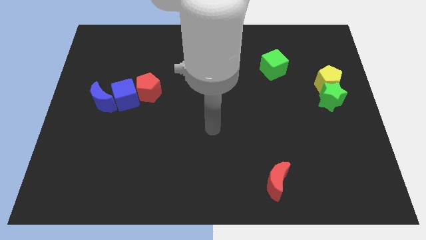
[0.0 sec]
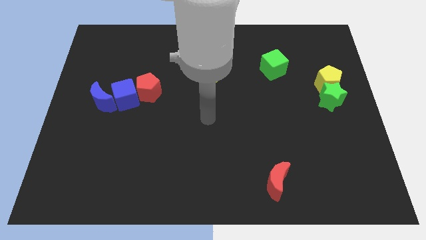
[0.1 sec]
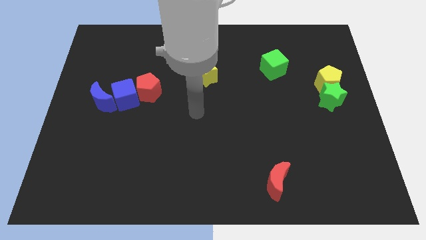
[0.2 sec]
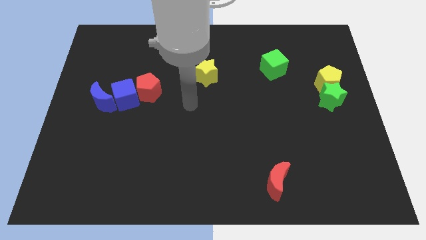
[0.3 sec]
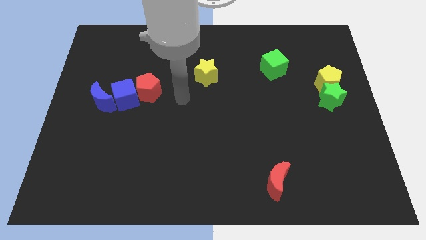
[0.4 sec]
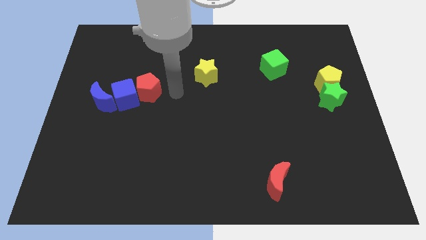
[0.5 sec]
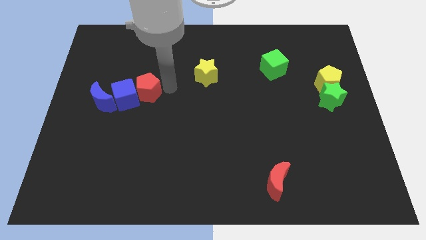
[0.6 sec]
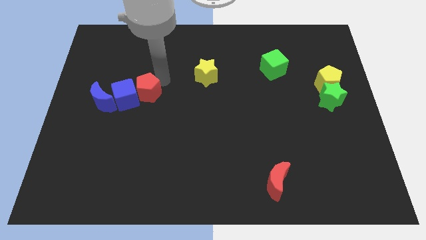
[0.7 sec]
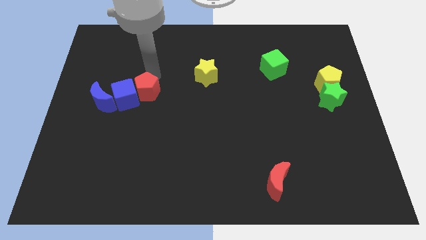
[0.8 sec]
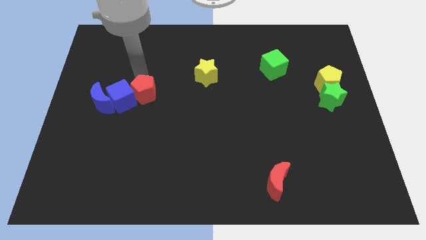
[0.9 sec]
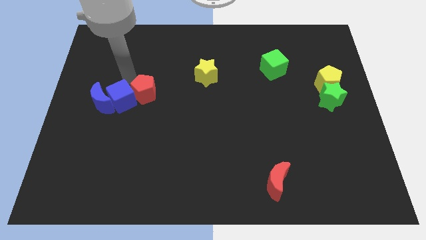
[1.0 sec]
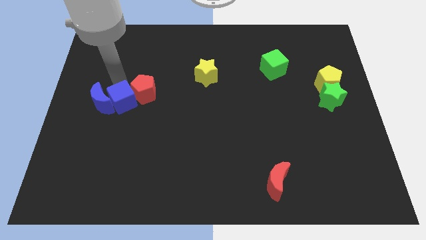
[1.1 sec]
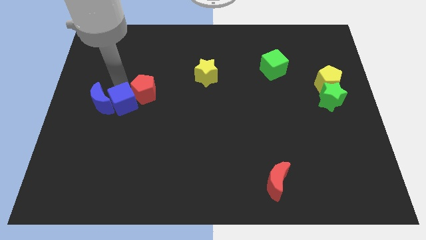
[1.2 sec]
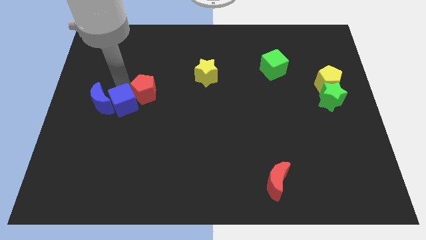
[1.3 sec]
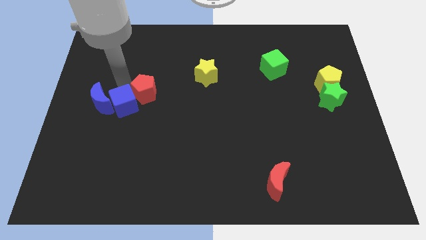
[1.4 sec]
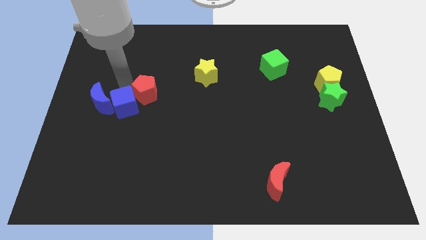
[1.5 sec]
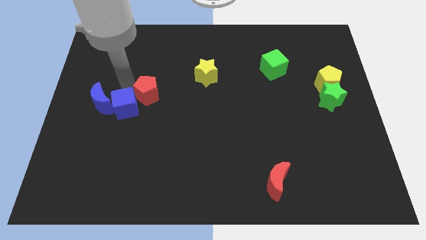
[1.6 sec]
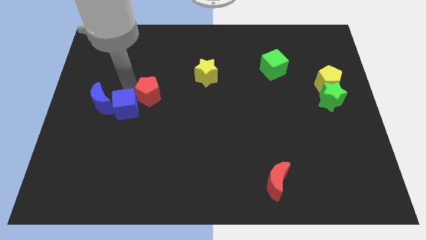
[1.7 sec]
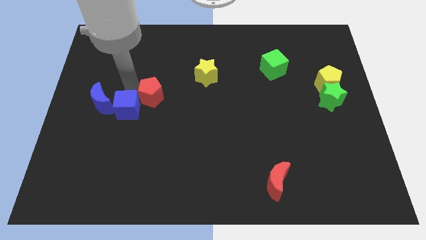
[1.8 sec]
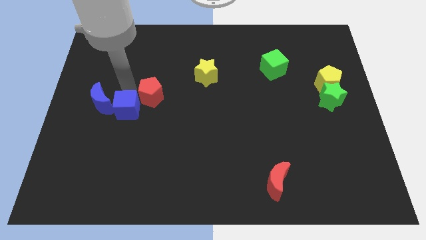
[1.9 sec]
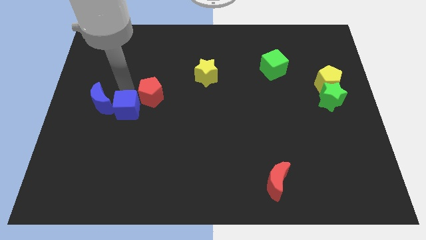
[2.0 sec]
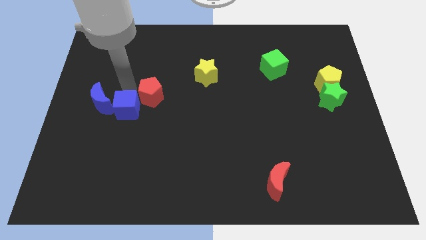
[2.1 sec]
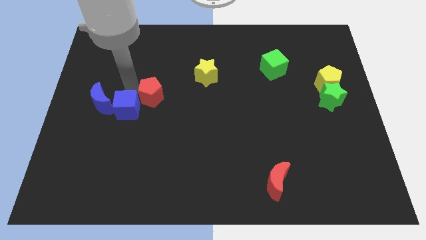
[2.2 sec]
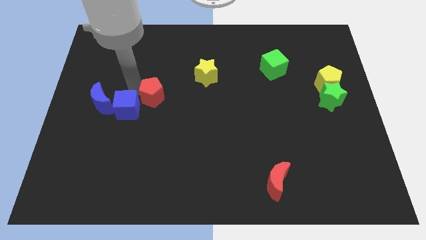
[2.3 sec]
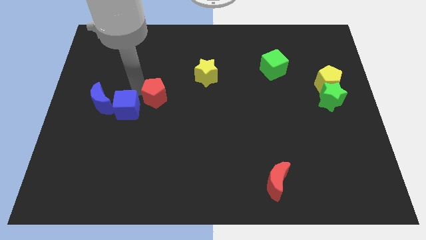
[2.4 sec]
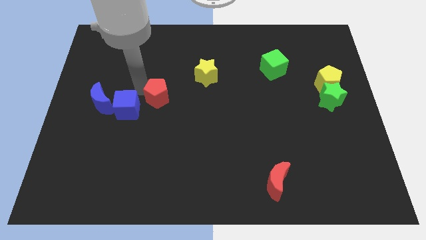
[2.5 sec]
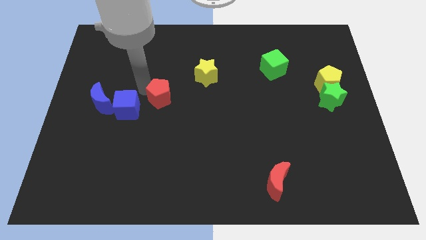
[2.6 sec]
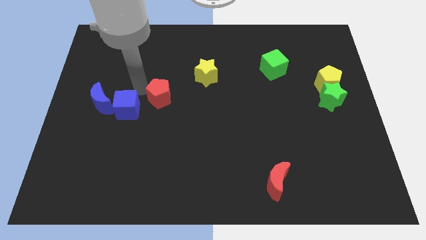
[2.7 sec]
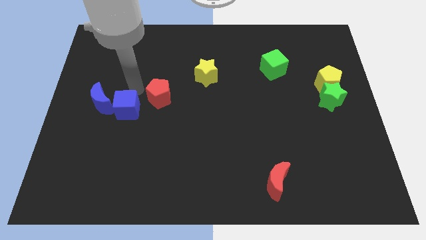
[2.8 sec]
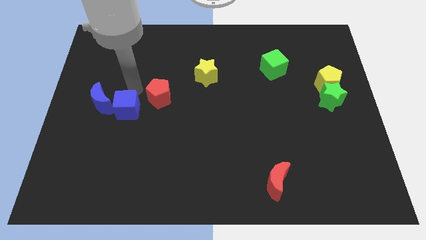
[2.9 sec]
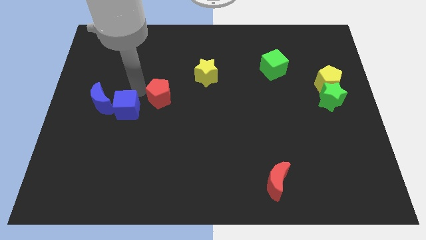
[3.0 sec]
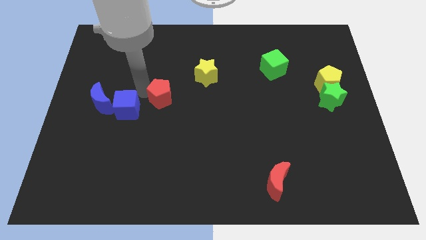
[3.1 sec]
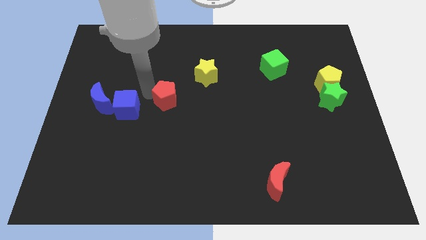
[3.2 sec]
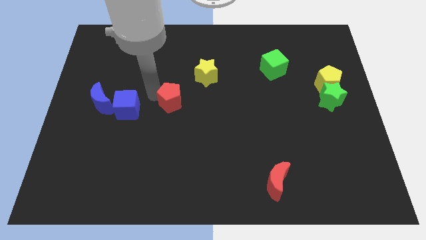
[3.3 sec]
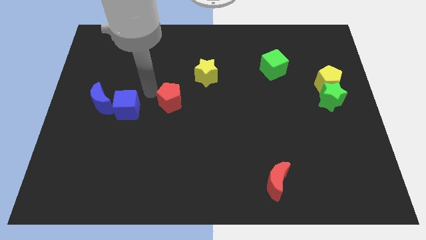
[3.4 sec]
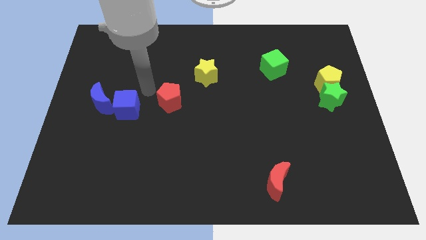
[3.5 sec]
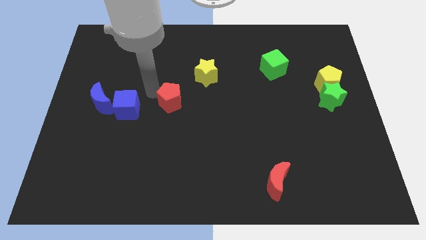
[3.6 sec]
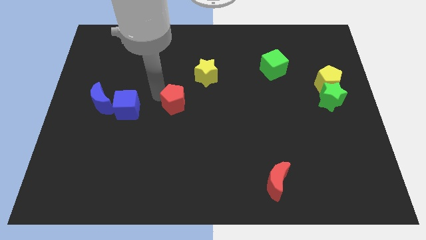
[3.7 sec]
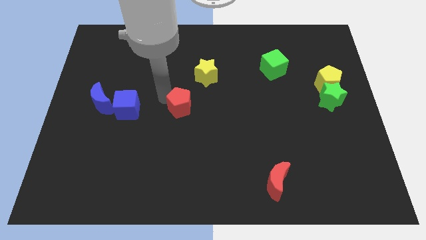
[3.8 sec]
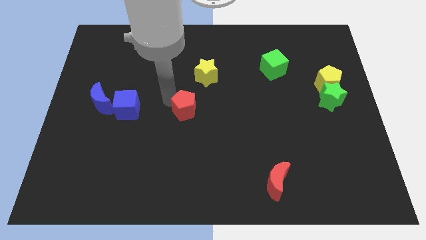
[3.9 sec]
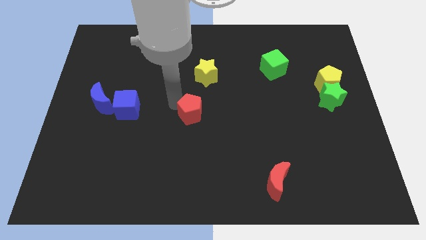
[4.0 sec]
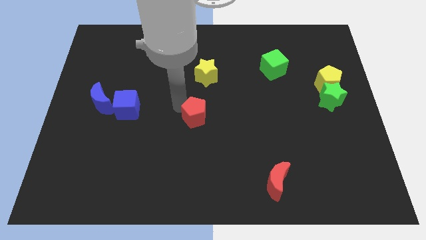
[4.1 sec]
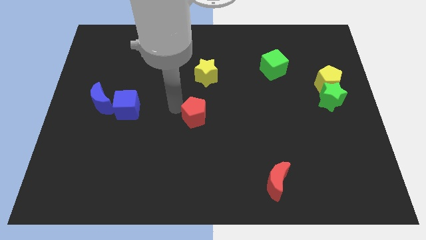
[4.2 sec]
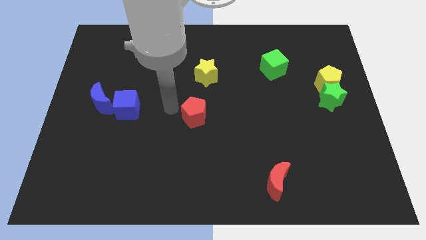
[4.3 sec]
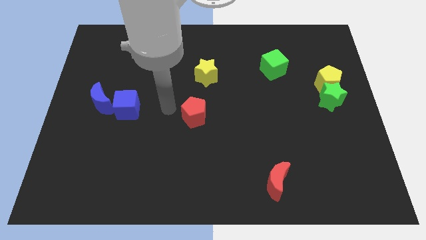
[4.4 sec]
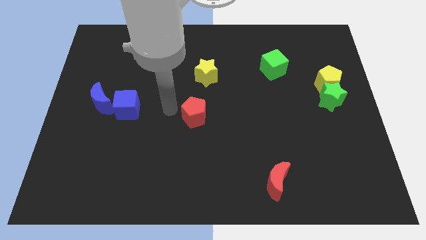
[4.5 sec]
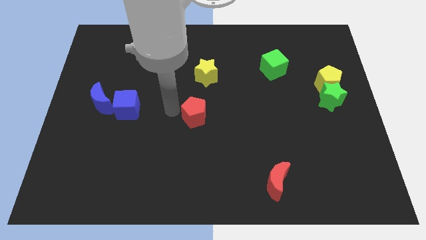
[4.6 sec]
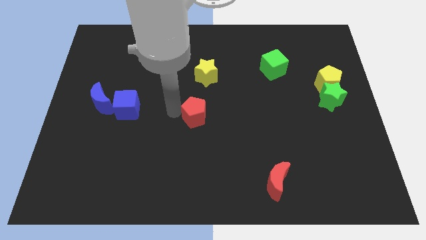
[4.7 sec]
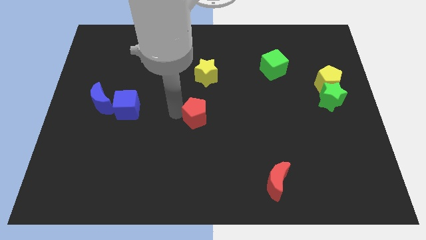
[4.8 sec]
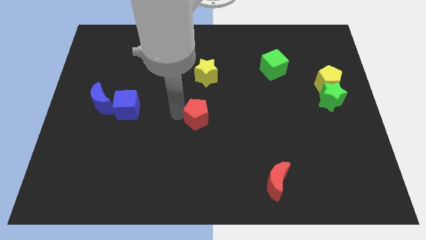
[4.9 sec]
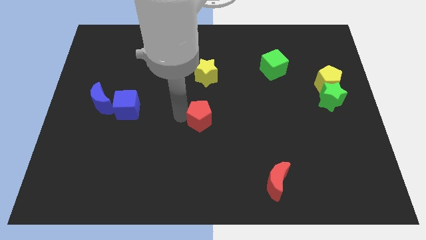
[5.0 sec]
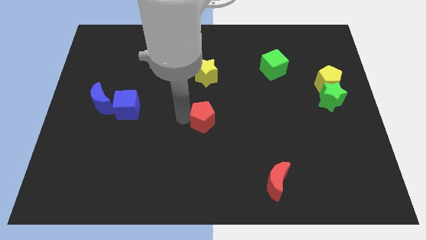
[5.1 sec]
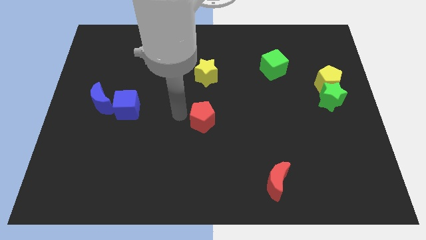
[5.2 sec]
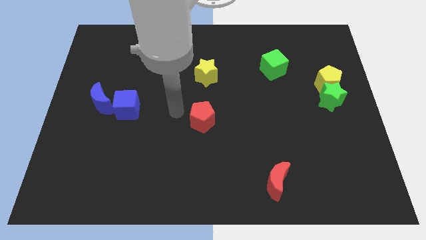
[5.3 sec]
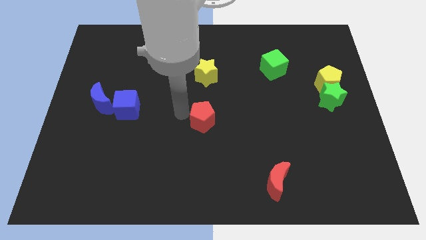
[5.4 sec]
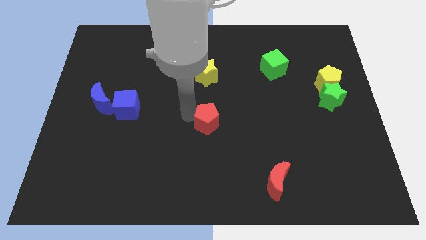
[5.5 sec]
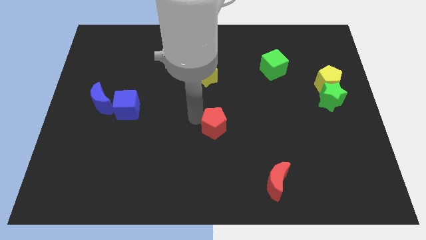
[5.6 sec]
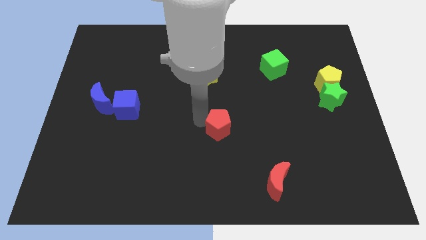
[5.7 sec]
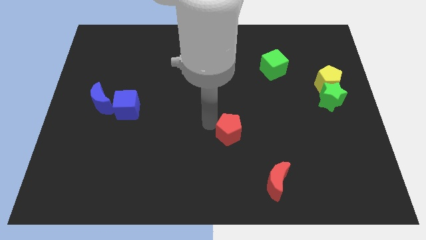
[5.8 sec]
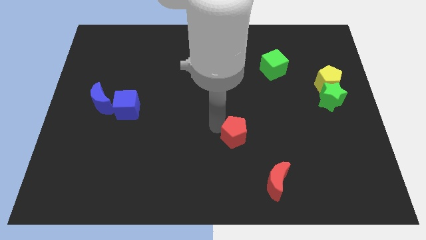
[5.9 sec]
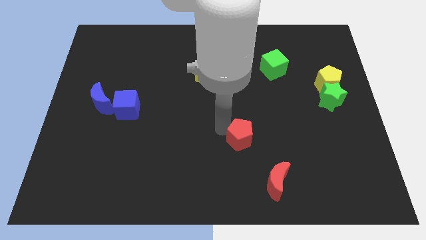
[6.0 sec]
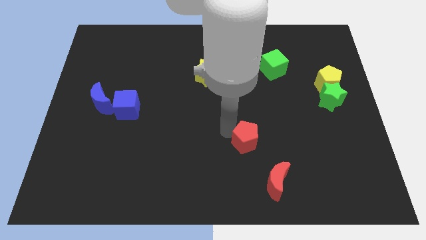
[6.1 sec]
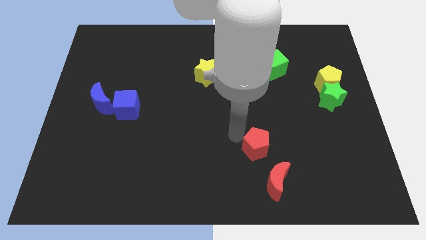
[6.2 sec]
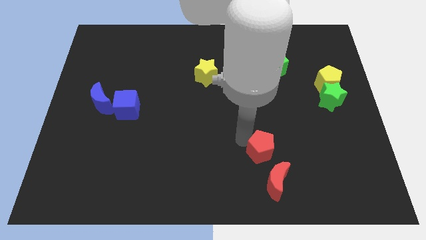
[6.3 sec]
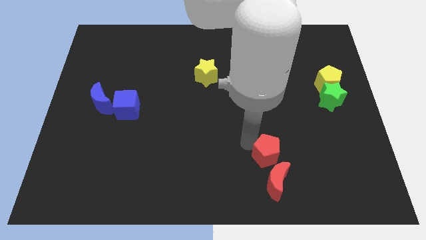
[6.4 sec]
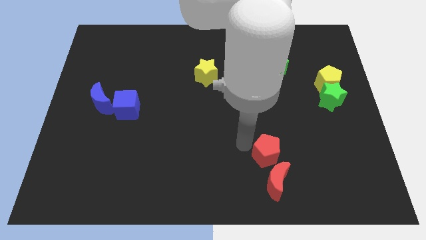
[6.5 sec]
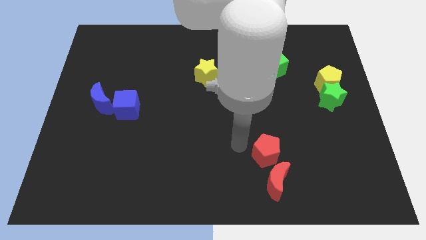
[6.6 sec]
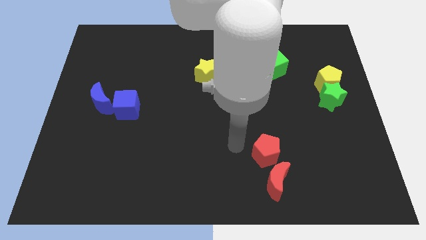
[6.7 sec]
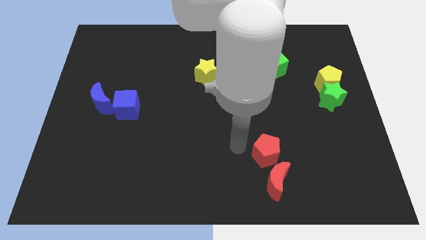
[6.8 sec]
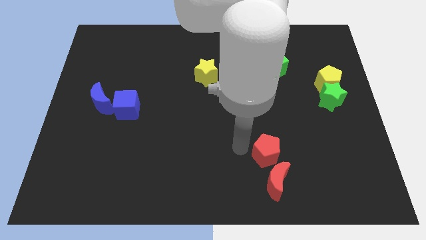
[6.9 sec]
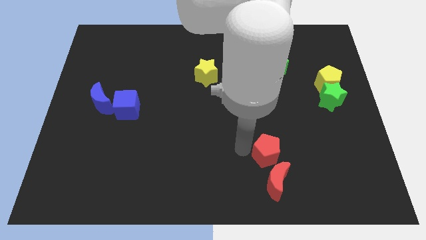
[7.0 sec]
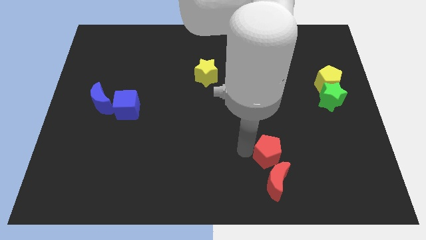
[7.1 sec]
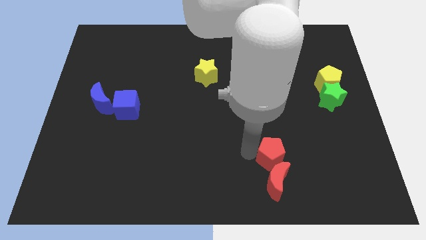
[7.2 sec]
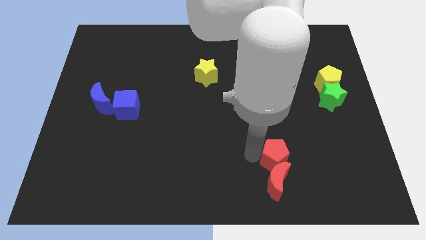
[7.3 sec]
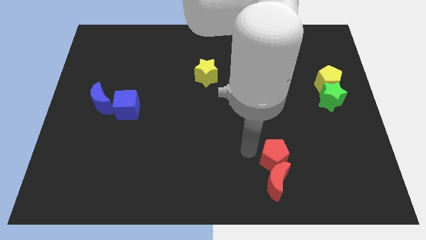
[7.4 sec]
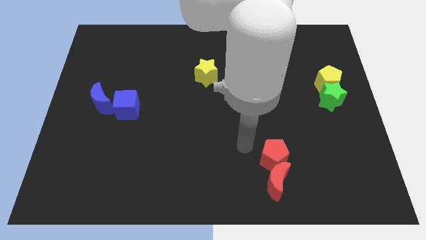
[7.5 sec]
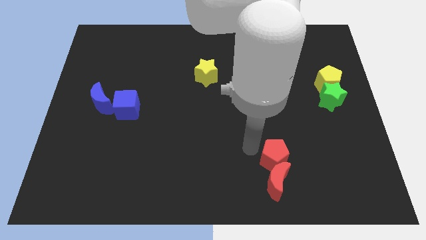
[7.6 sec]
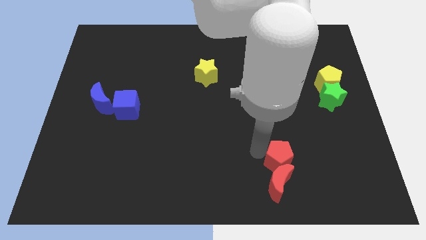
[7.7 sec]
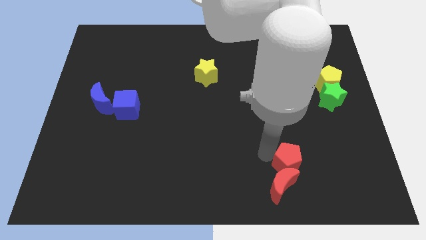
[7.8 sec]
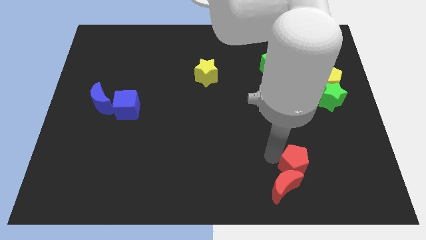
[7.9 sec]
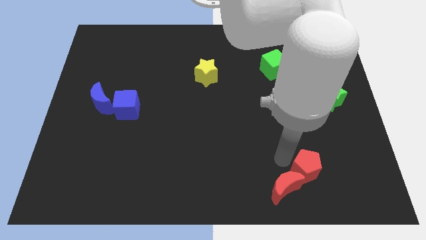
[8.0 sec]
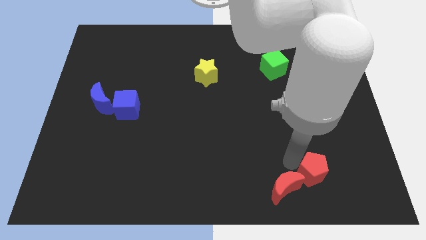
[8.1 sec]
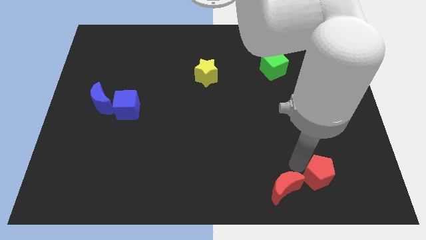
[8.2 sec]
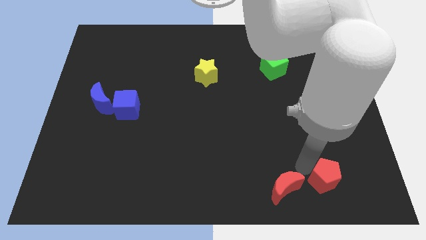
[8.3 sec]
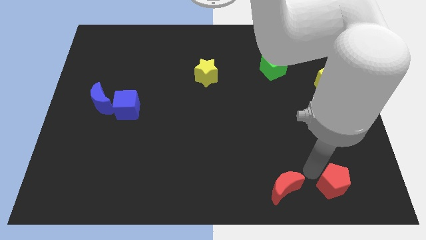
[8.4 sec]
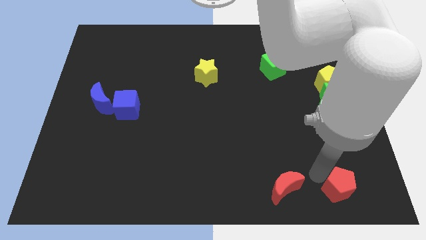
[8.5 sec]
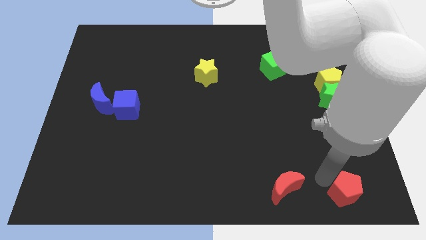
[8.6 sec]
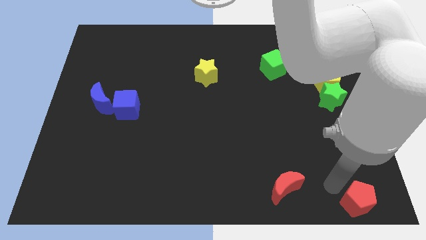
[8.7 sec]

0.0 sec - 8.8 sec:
move the red pentagon to the lower right corner
